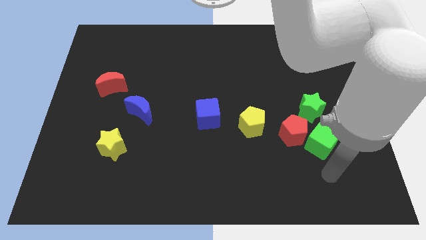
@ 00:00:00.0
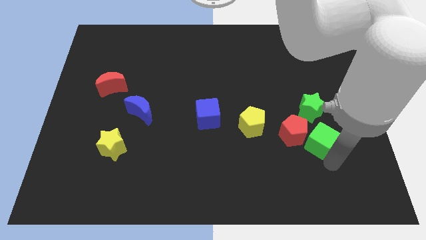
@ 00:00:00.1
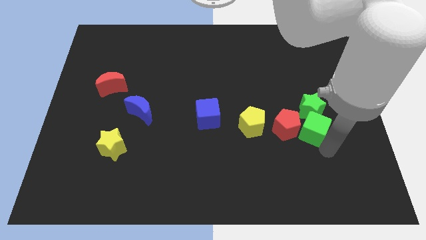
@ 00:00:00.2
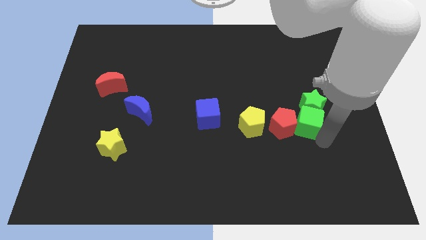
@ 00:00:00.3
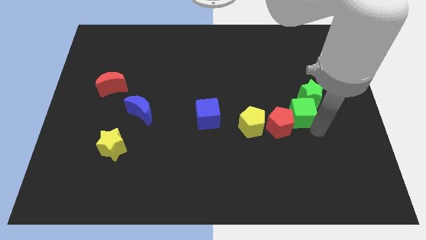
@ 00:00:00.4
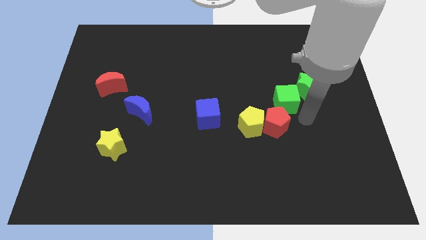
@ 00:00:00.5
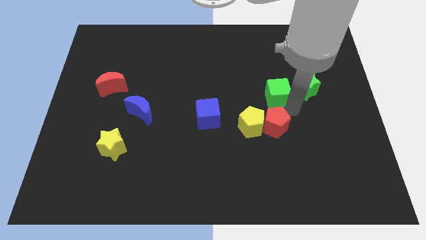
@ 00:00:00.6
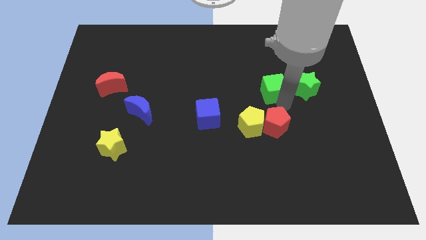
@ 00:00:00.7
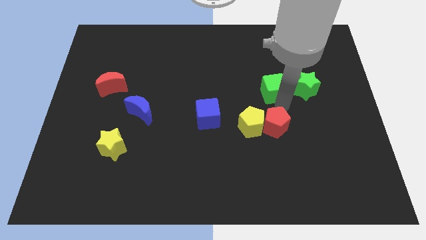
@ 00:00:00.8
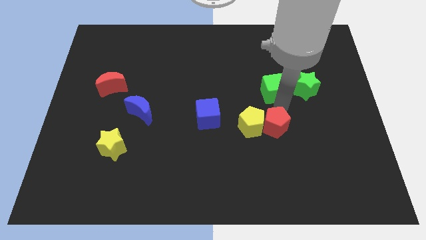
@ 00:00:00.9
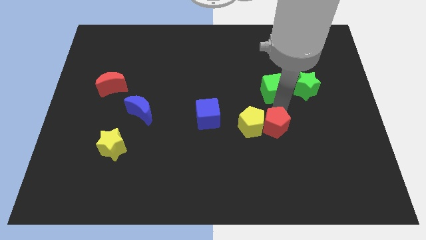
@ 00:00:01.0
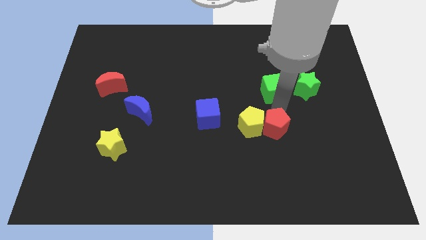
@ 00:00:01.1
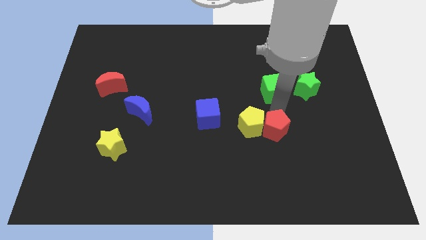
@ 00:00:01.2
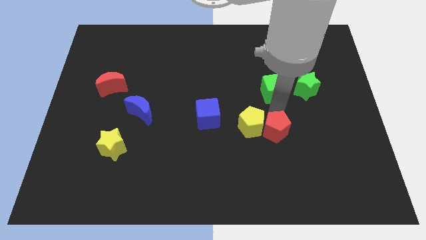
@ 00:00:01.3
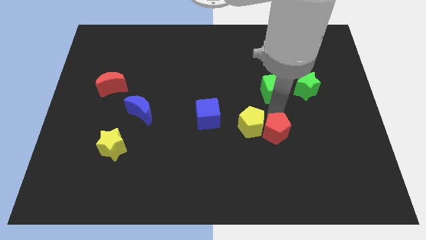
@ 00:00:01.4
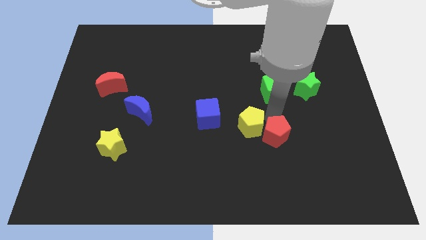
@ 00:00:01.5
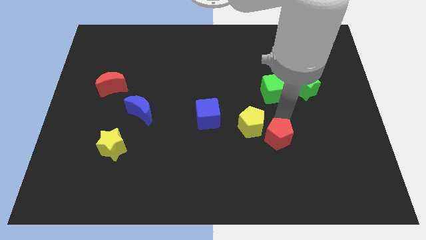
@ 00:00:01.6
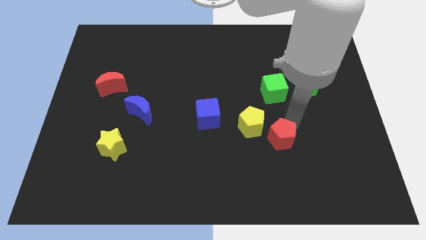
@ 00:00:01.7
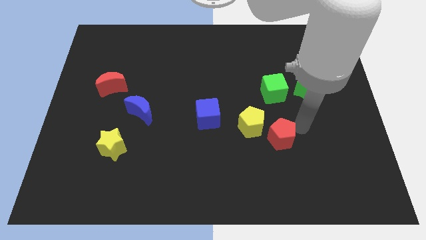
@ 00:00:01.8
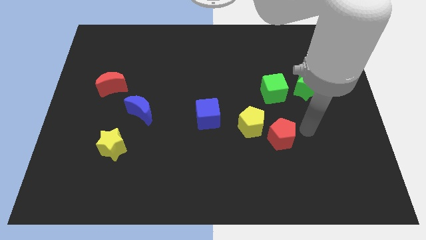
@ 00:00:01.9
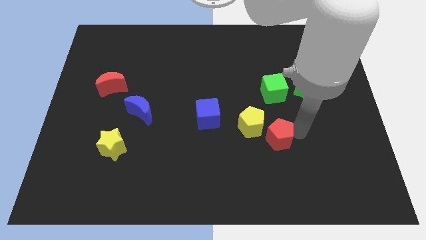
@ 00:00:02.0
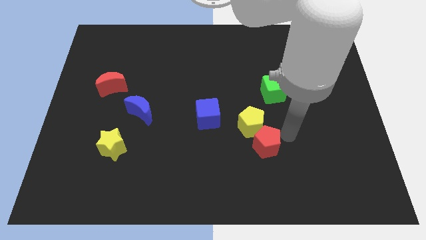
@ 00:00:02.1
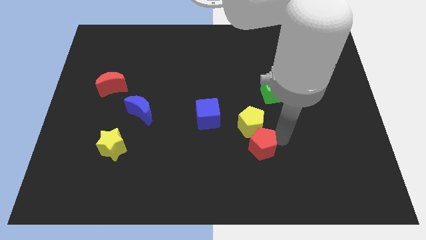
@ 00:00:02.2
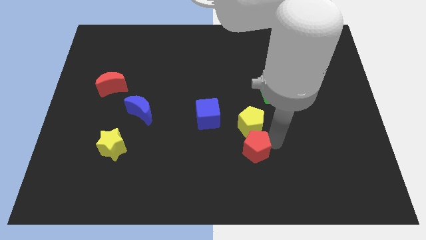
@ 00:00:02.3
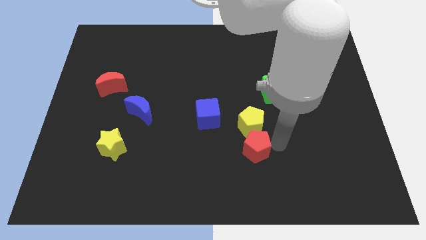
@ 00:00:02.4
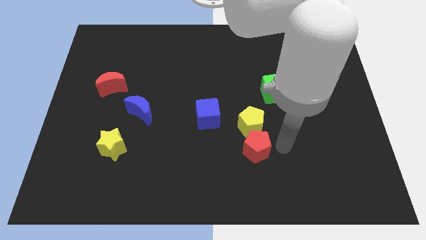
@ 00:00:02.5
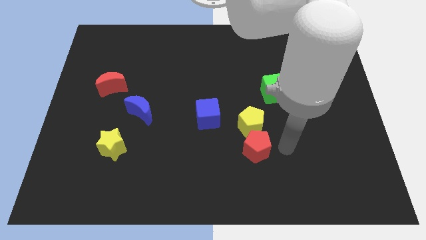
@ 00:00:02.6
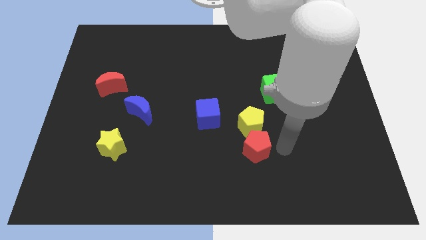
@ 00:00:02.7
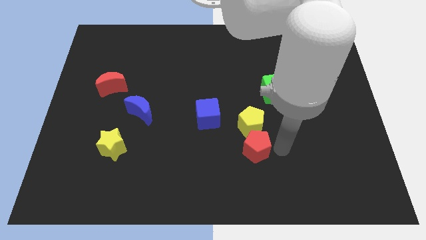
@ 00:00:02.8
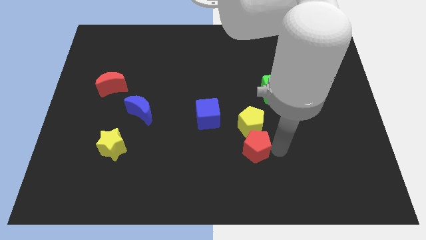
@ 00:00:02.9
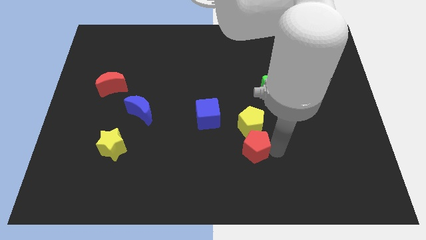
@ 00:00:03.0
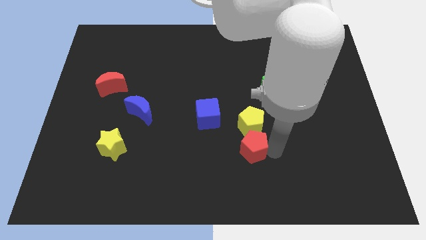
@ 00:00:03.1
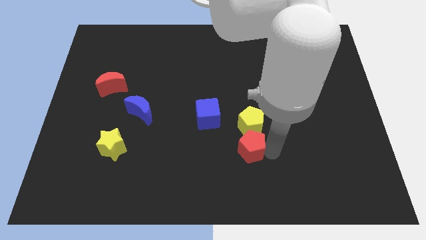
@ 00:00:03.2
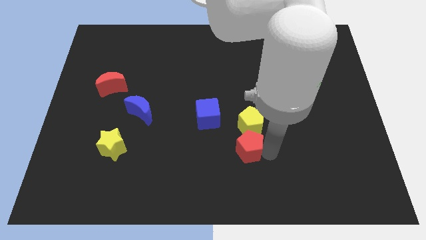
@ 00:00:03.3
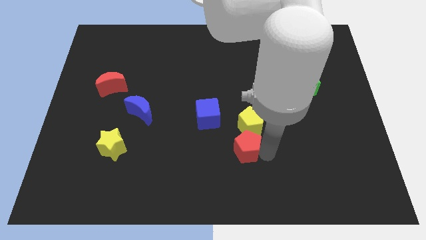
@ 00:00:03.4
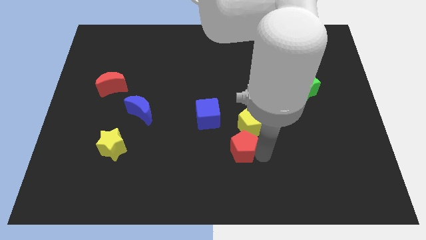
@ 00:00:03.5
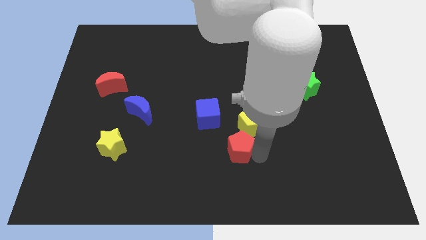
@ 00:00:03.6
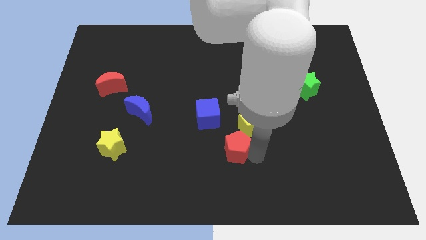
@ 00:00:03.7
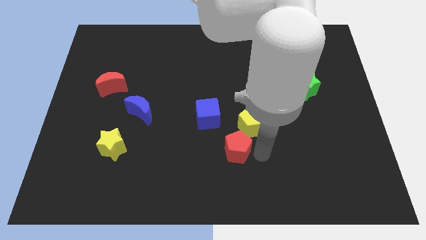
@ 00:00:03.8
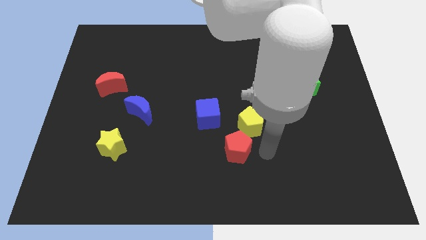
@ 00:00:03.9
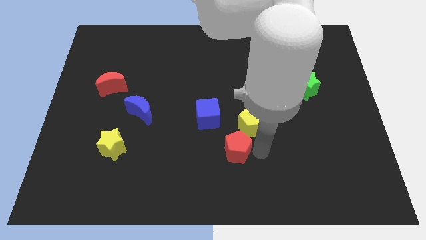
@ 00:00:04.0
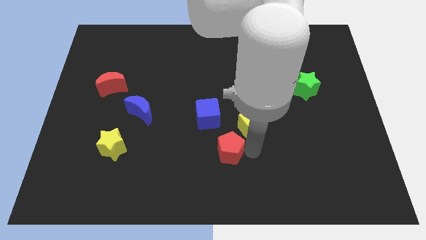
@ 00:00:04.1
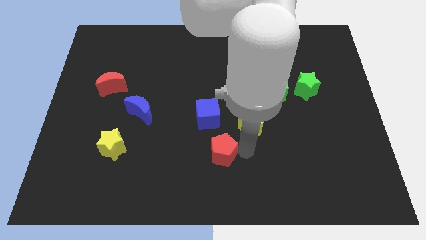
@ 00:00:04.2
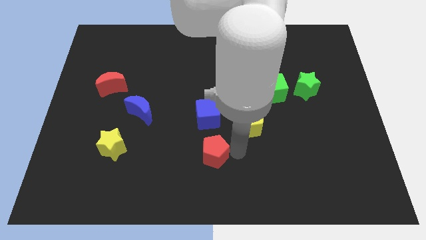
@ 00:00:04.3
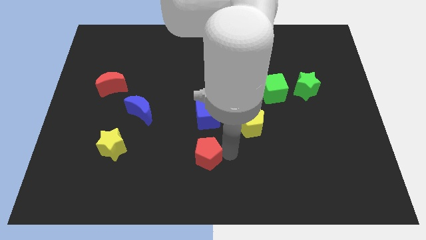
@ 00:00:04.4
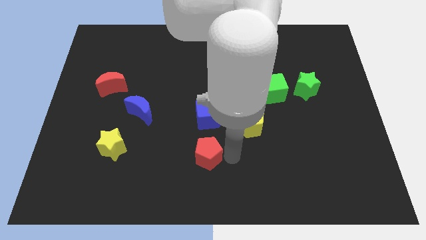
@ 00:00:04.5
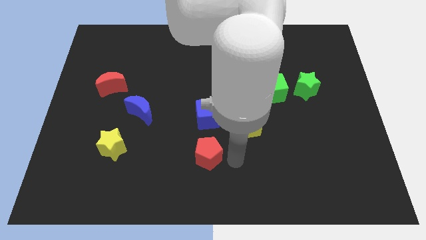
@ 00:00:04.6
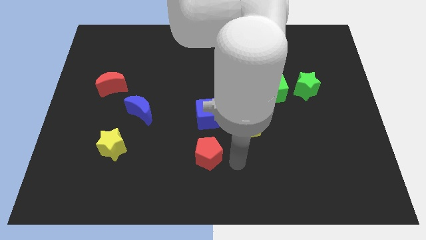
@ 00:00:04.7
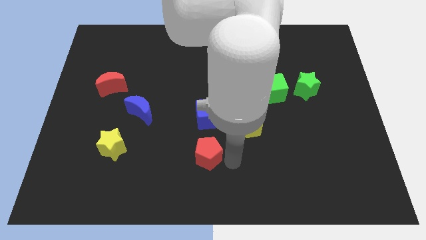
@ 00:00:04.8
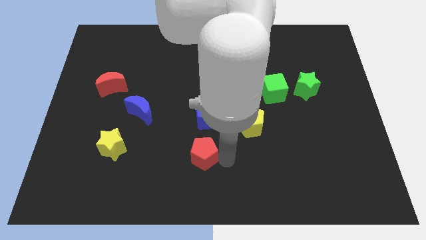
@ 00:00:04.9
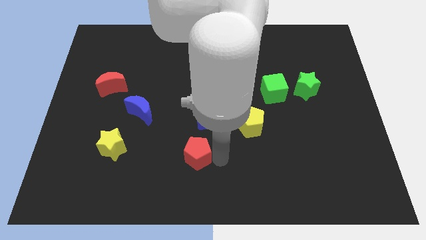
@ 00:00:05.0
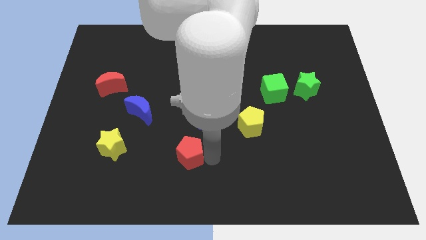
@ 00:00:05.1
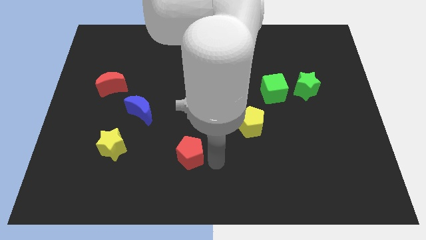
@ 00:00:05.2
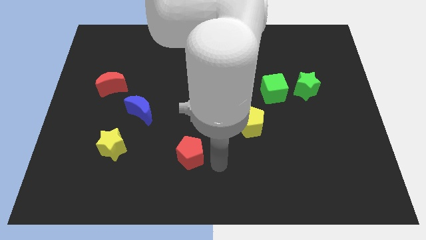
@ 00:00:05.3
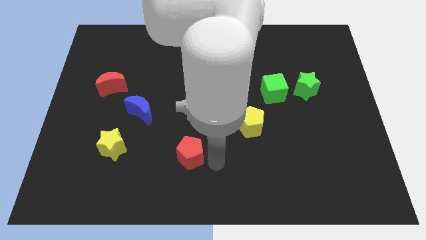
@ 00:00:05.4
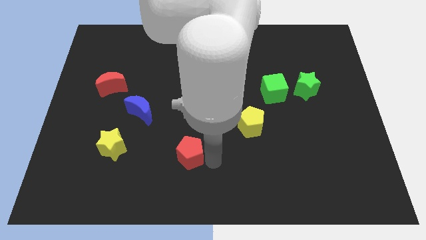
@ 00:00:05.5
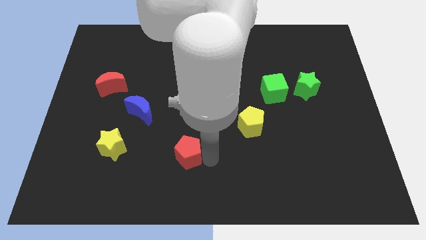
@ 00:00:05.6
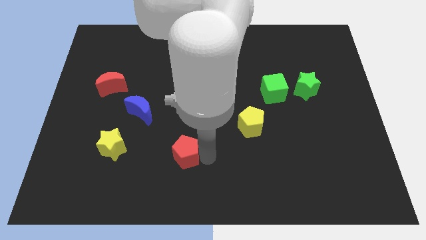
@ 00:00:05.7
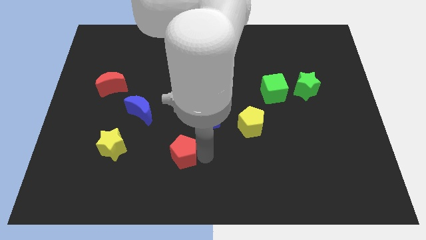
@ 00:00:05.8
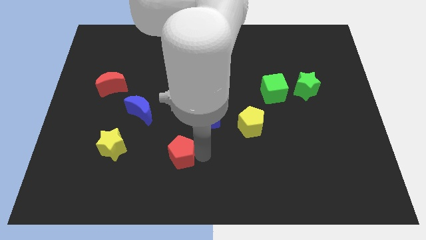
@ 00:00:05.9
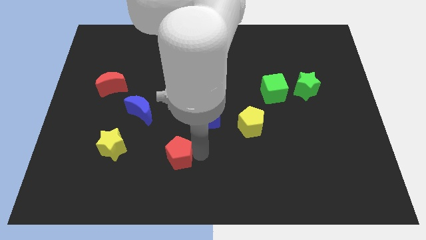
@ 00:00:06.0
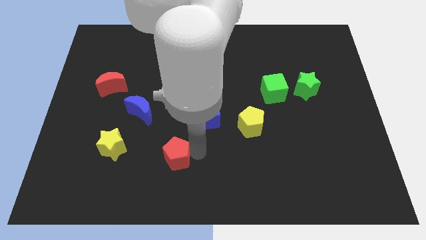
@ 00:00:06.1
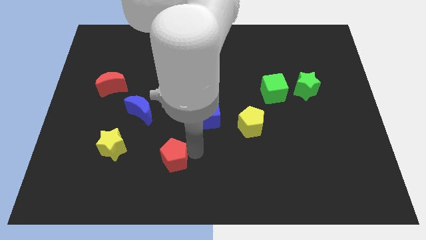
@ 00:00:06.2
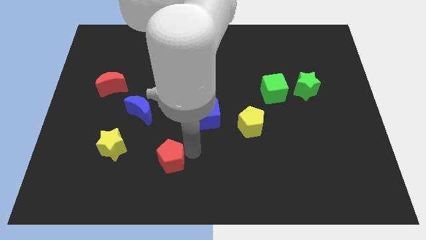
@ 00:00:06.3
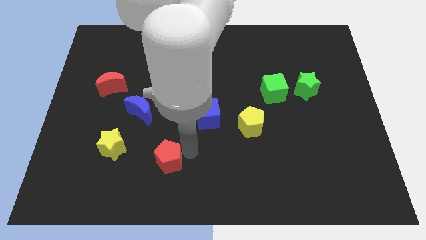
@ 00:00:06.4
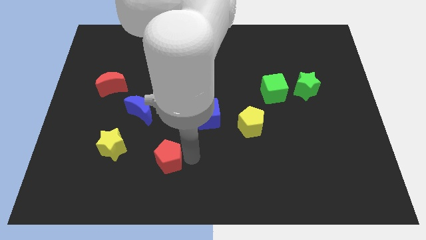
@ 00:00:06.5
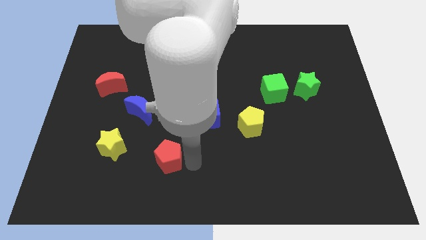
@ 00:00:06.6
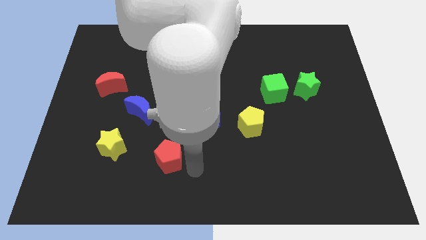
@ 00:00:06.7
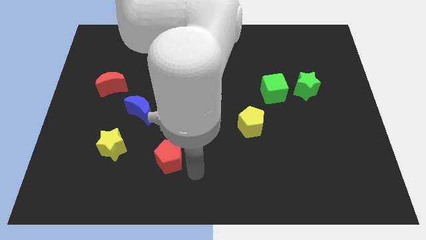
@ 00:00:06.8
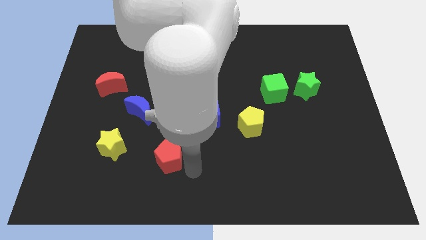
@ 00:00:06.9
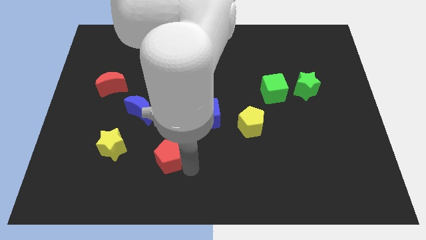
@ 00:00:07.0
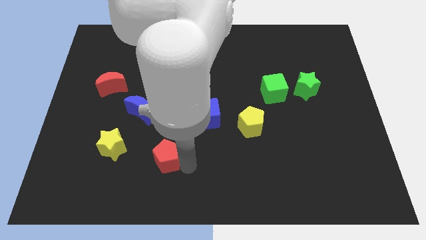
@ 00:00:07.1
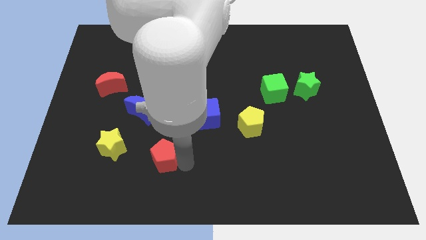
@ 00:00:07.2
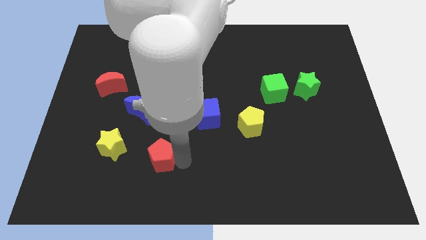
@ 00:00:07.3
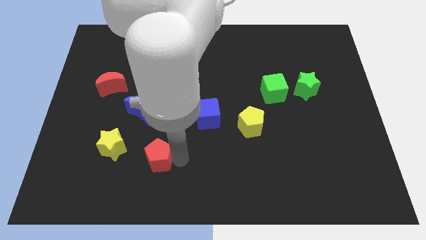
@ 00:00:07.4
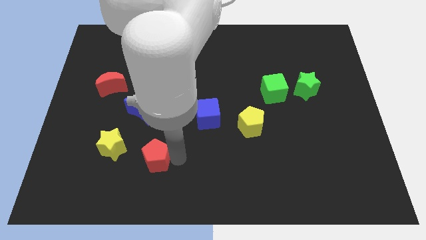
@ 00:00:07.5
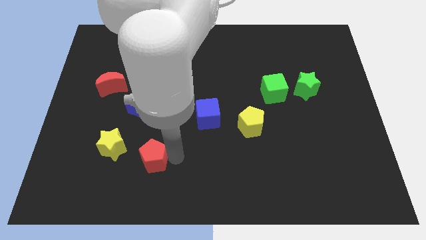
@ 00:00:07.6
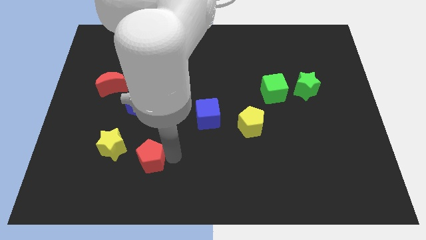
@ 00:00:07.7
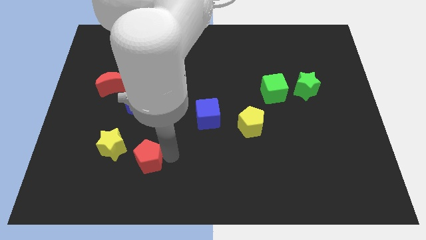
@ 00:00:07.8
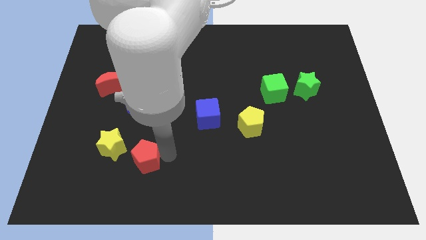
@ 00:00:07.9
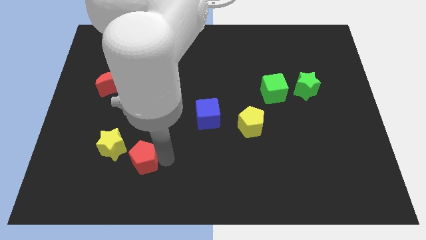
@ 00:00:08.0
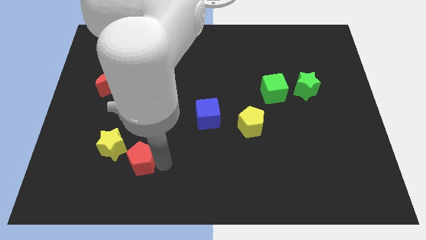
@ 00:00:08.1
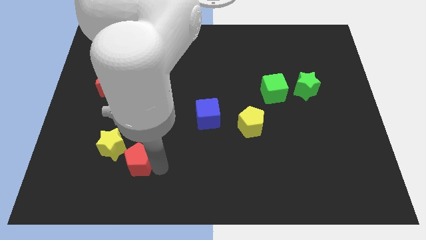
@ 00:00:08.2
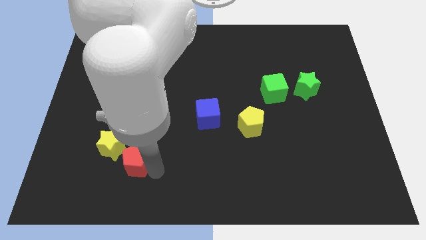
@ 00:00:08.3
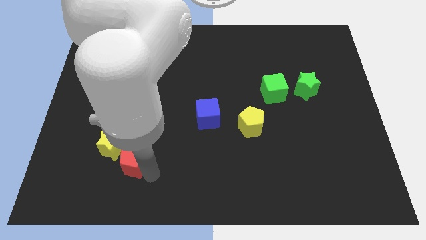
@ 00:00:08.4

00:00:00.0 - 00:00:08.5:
push the red pentagon next to the yellow star
